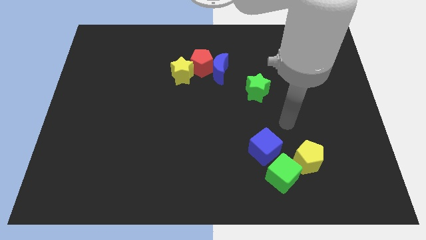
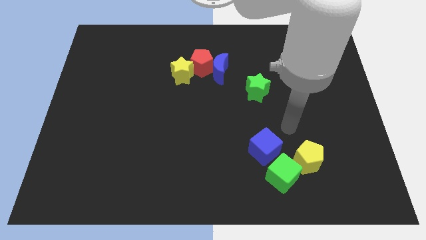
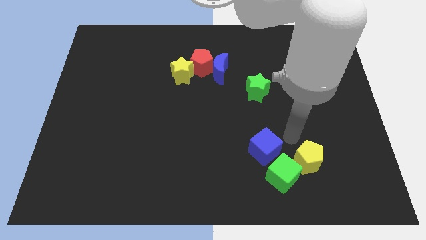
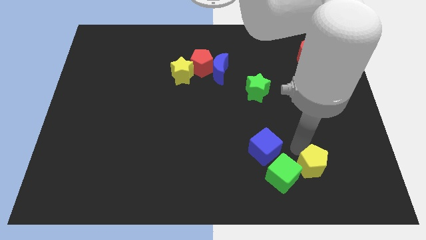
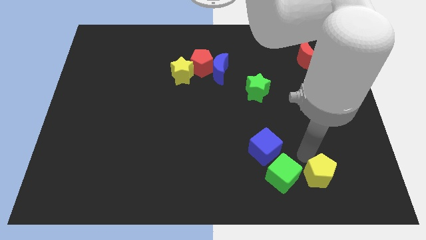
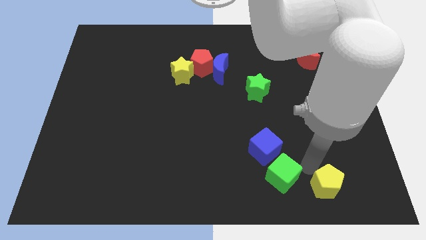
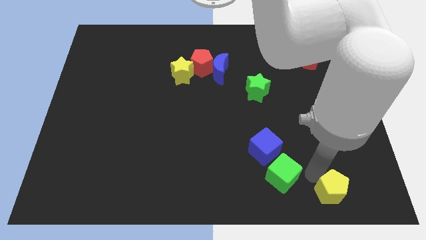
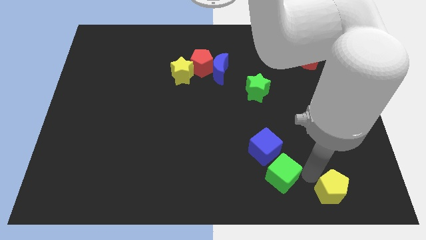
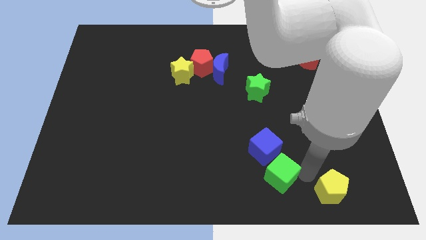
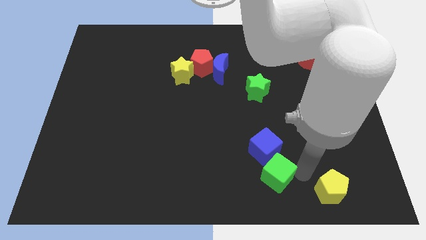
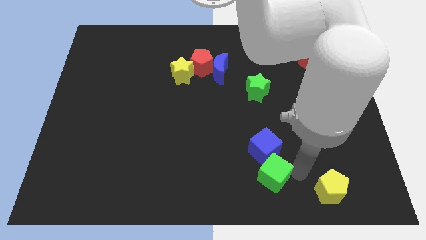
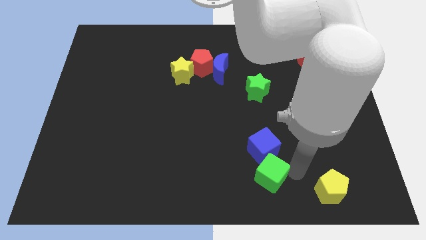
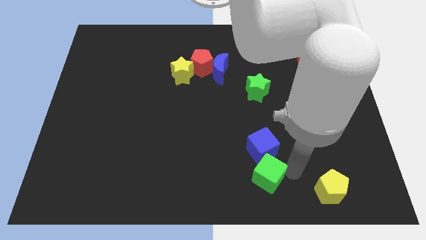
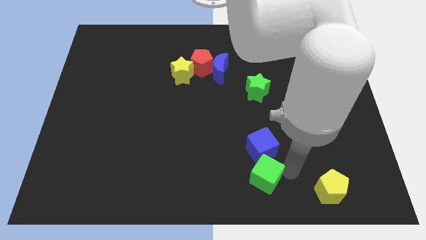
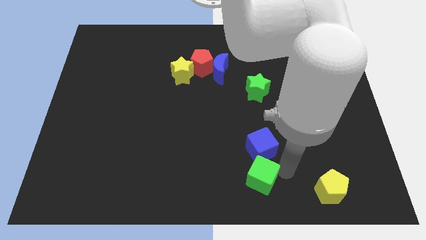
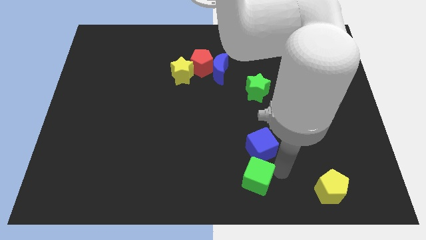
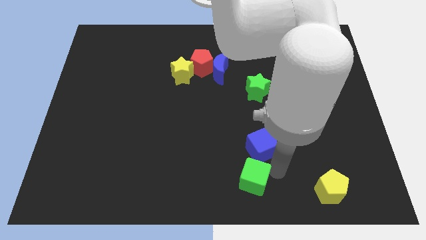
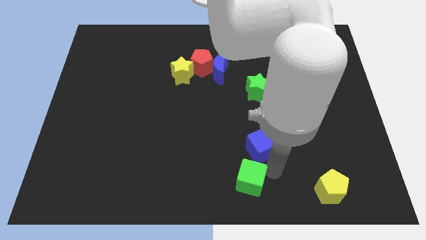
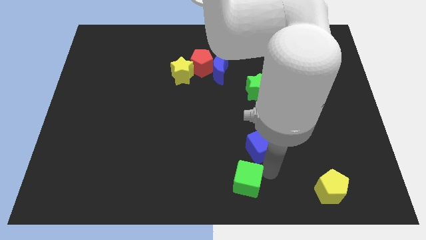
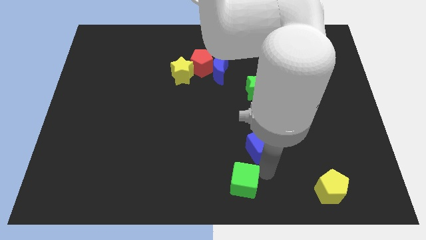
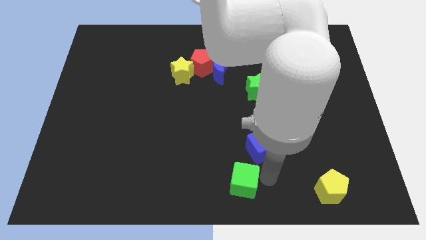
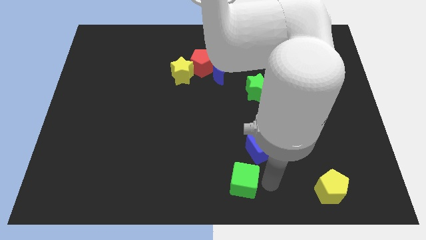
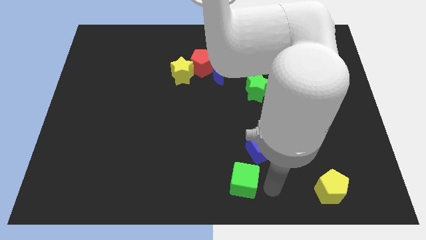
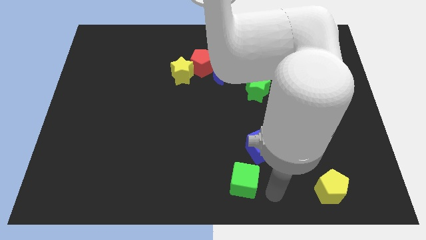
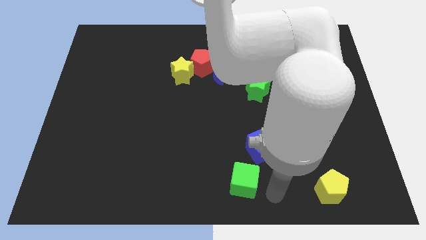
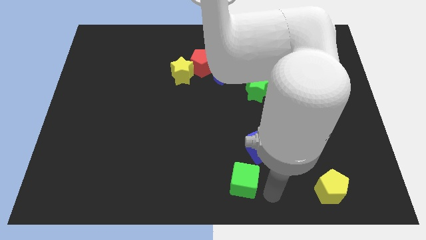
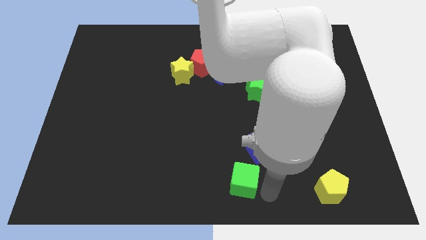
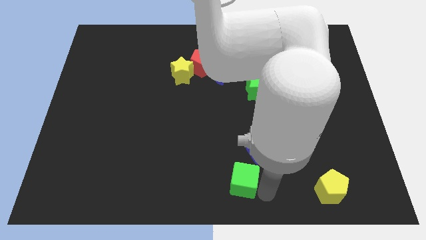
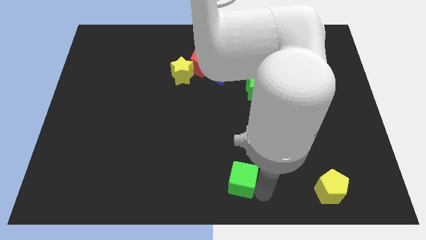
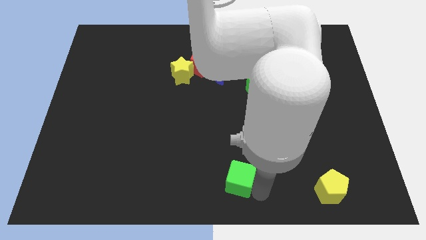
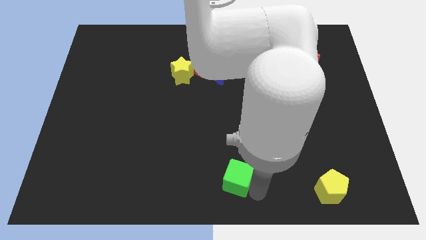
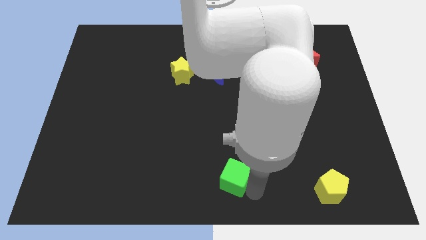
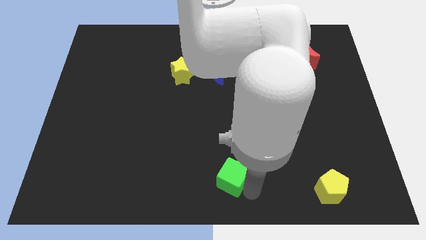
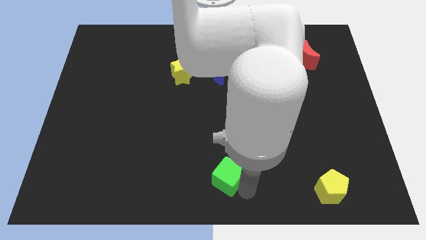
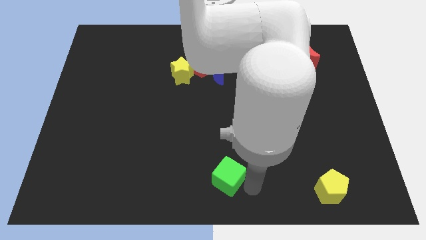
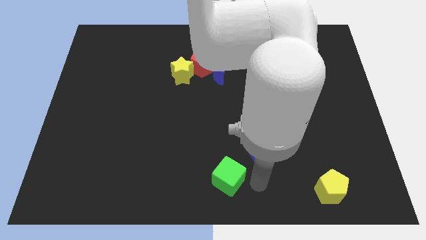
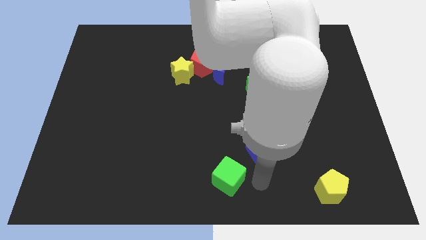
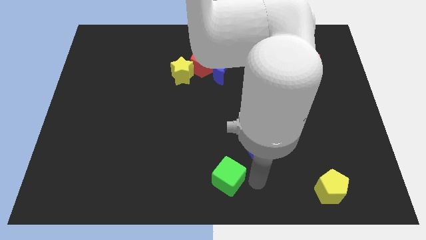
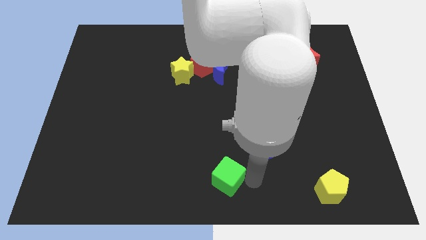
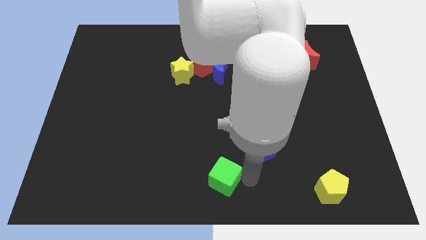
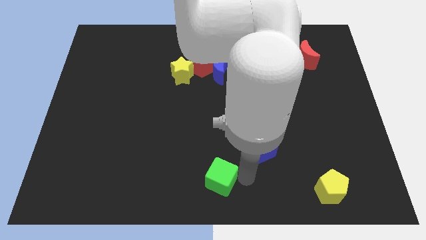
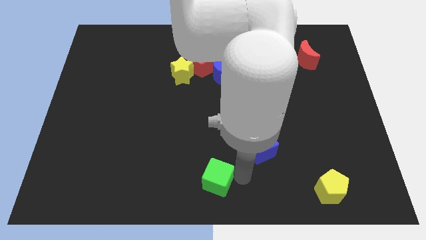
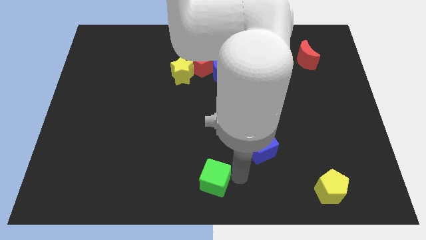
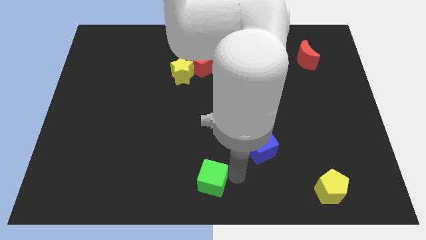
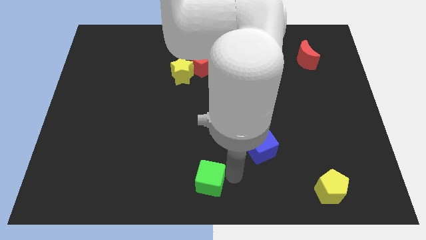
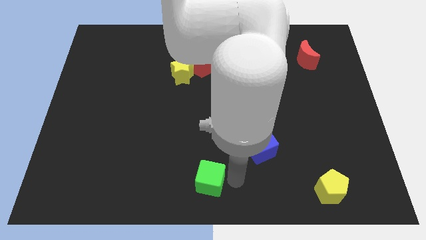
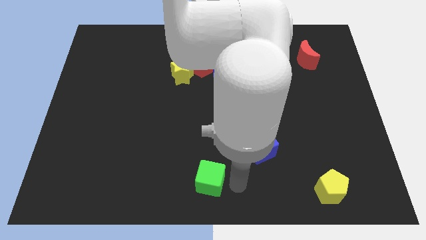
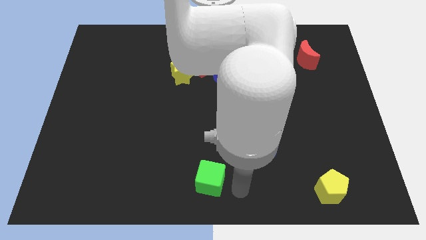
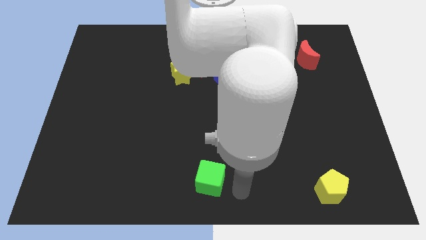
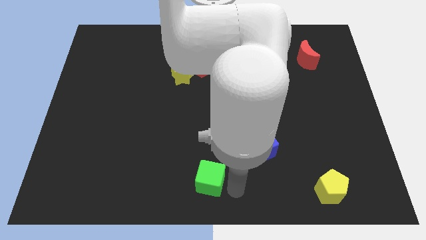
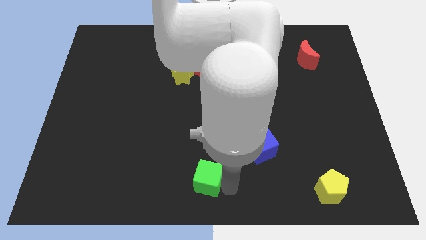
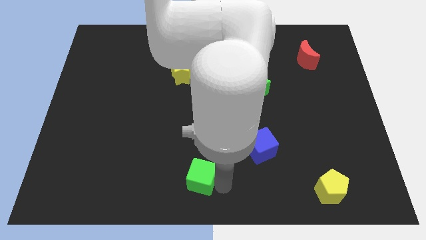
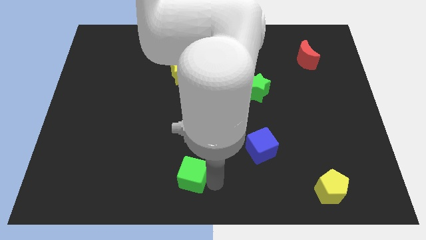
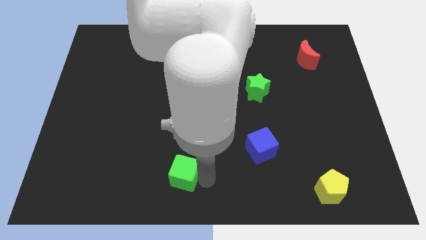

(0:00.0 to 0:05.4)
slide the green cube left

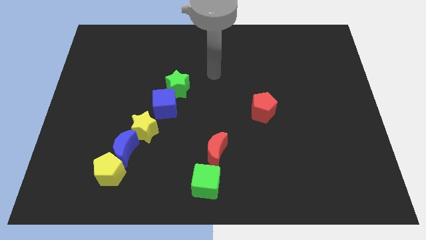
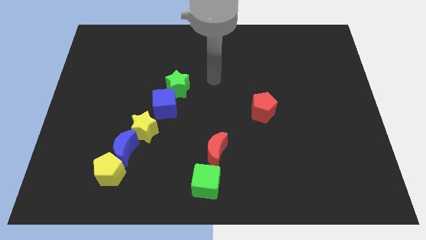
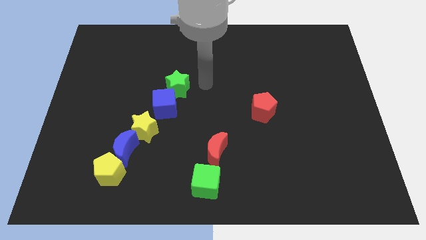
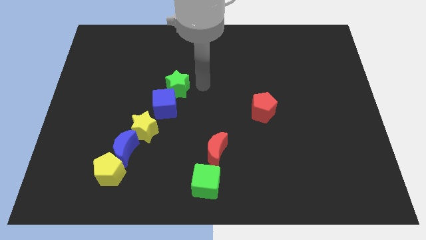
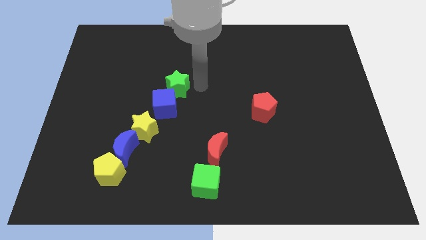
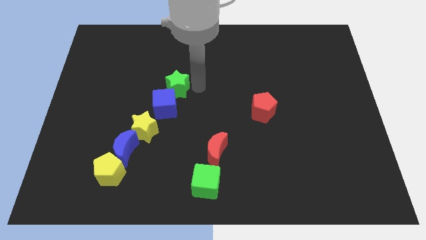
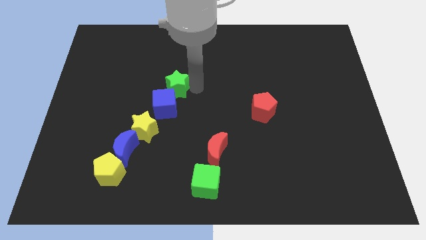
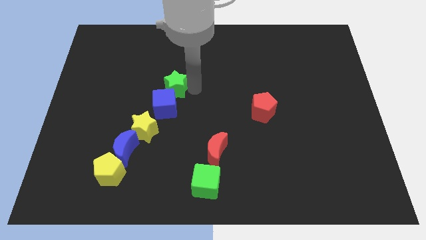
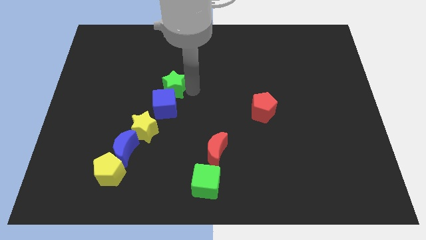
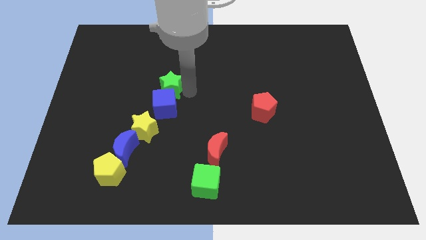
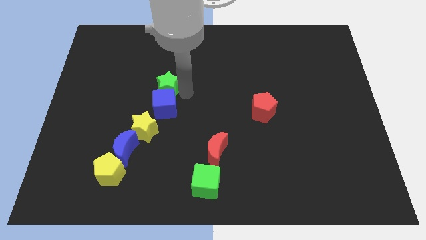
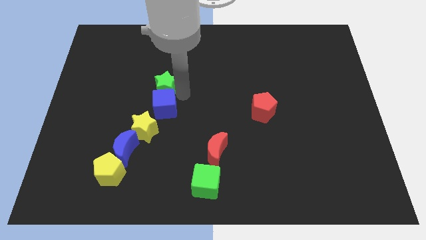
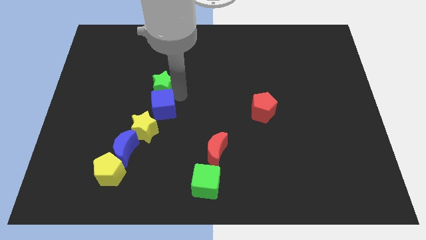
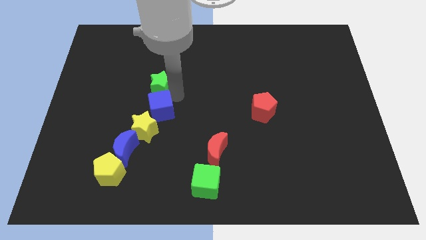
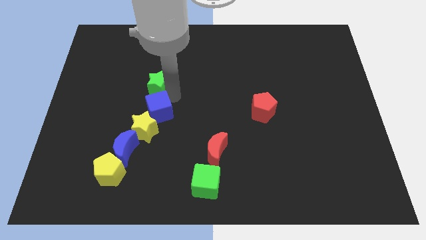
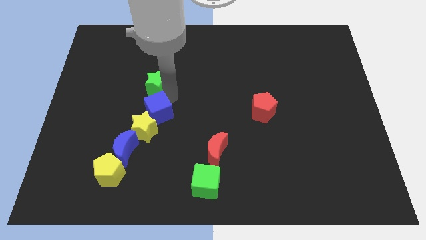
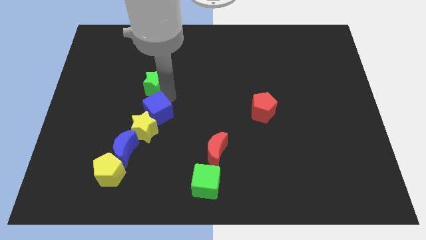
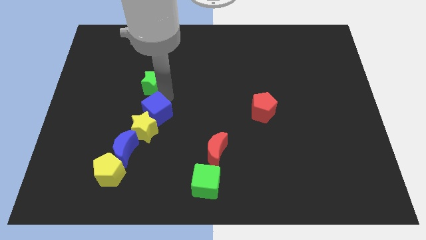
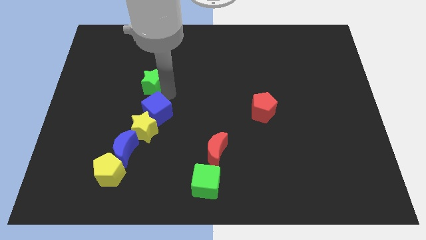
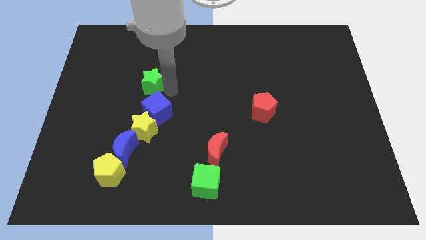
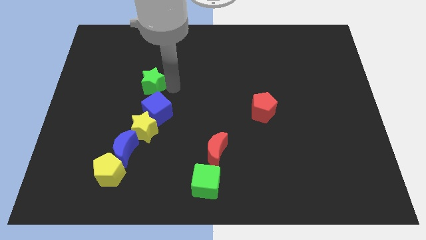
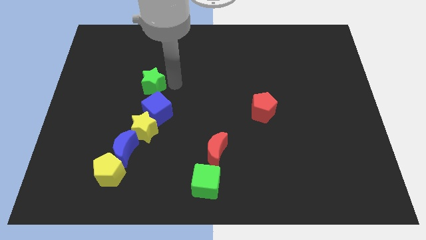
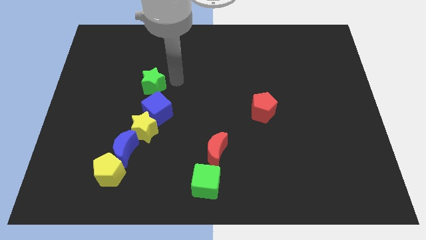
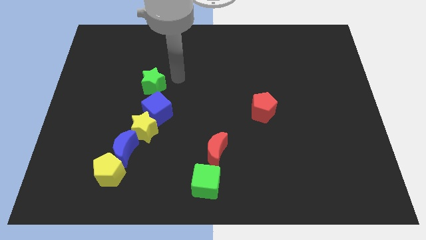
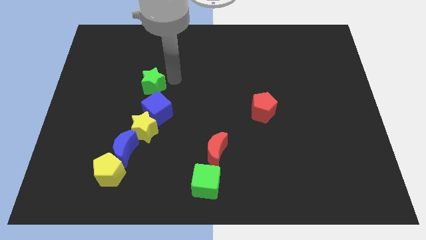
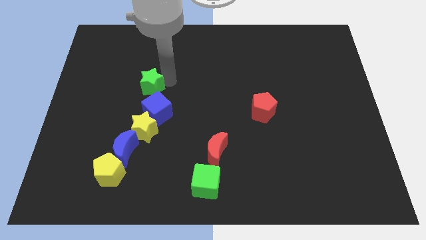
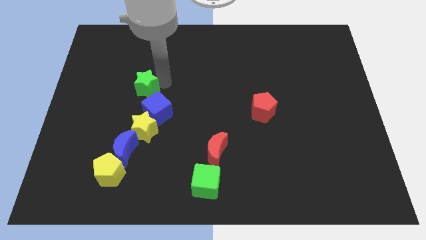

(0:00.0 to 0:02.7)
push the green star slightly left
